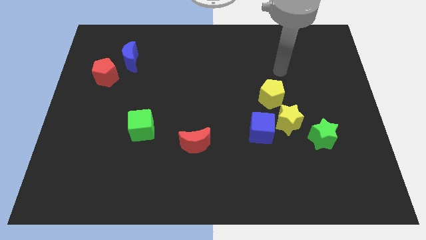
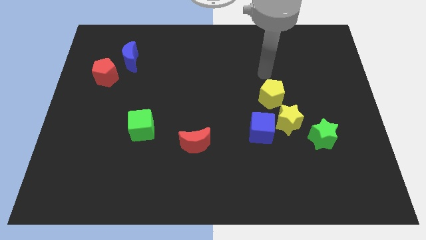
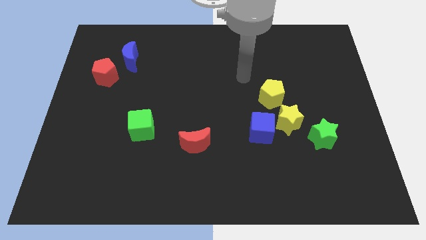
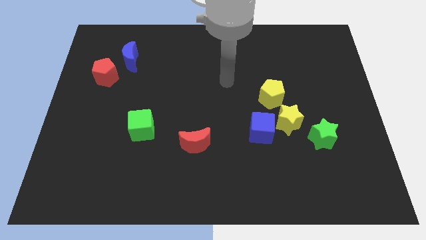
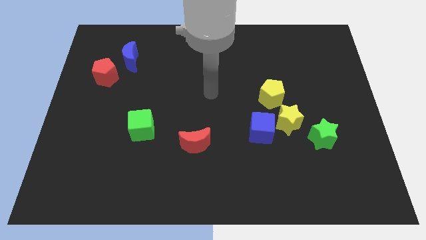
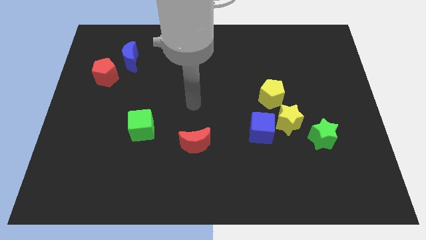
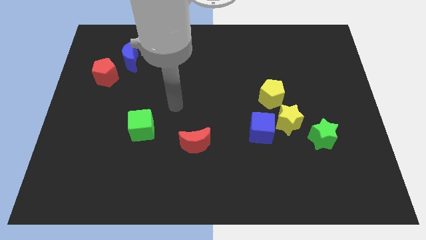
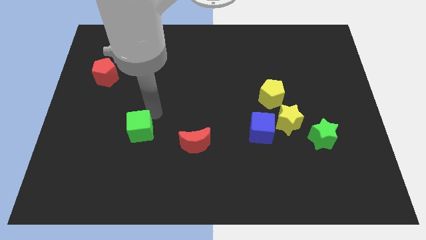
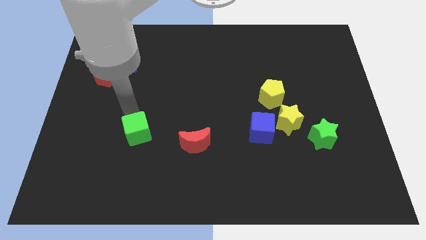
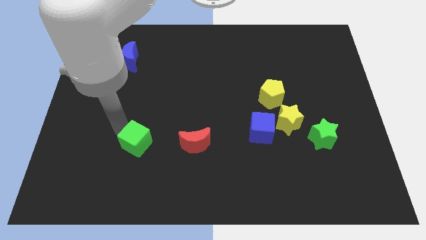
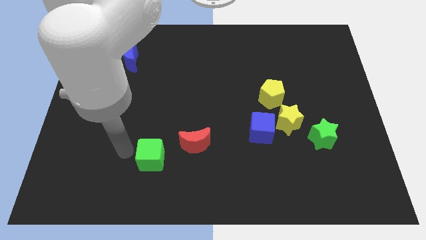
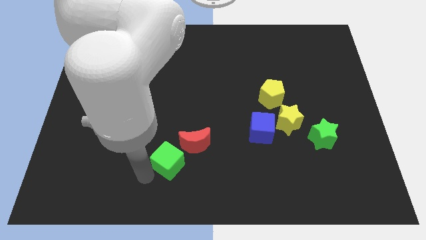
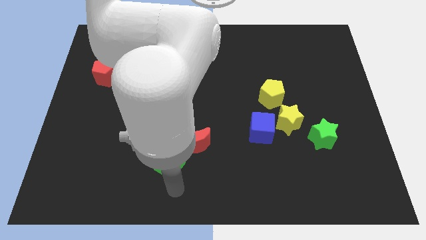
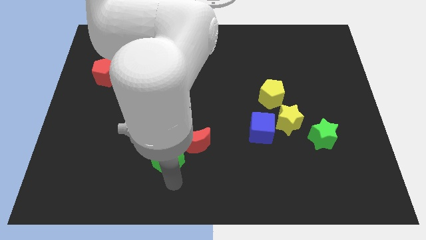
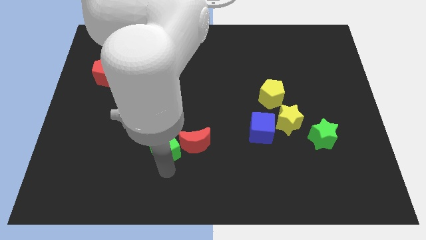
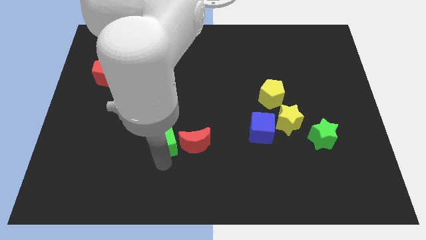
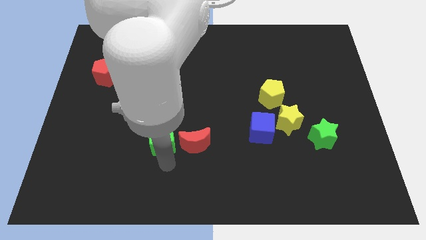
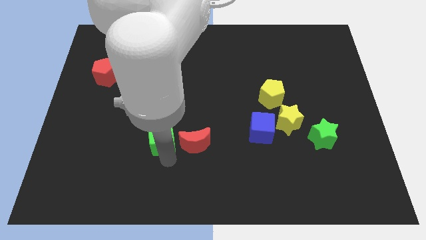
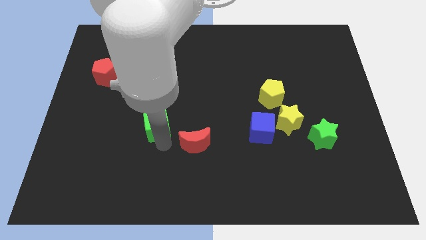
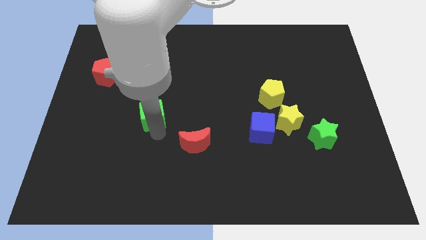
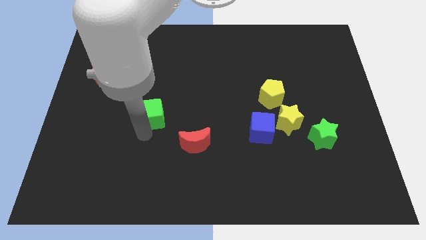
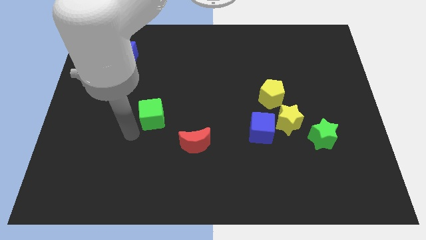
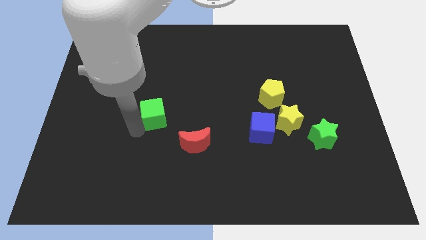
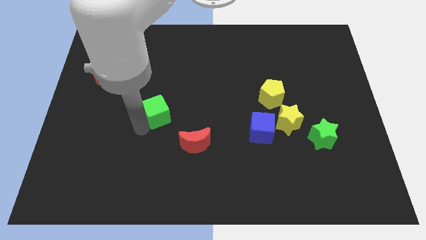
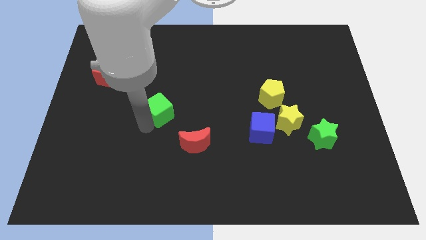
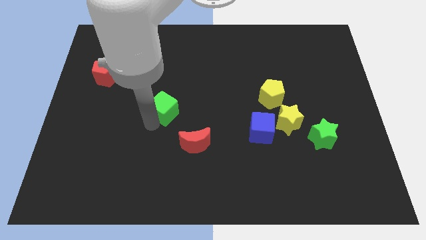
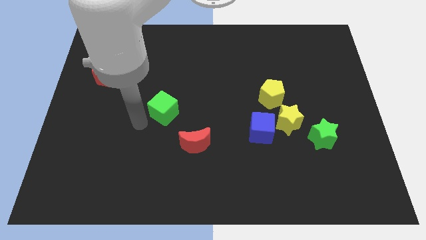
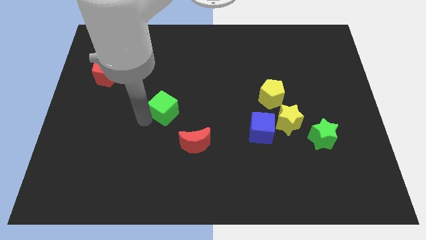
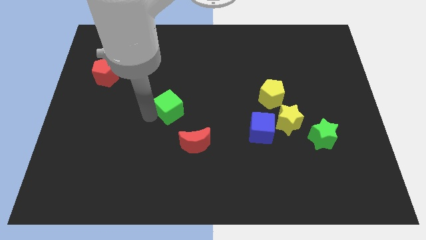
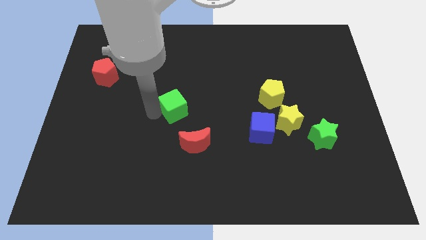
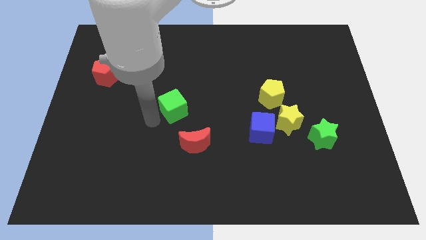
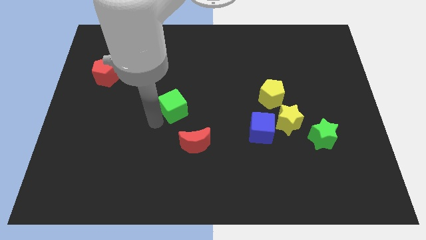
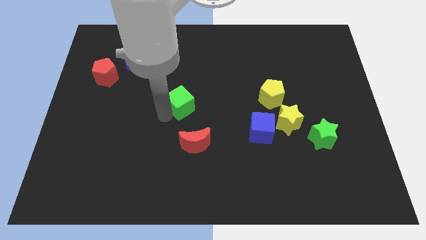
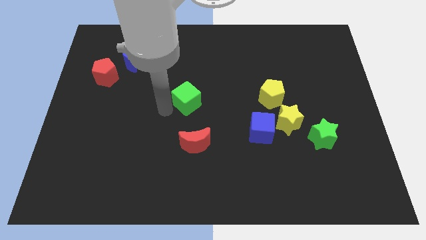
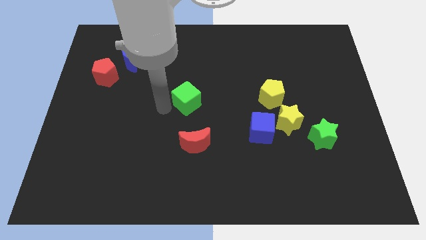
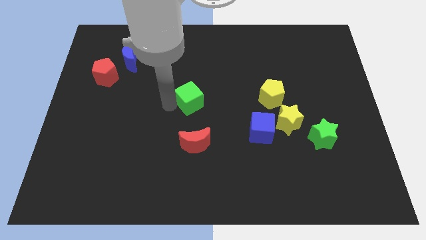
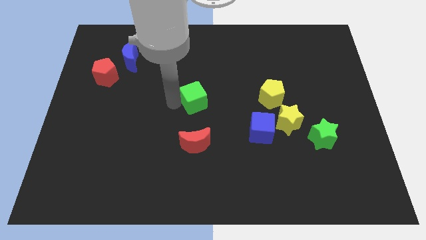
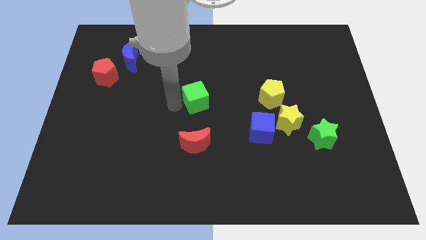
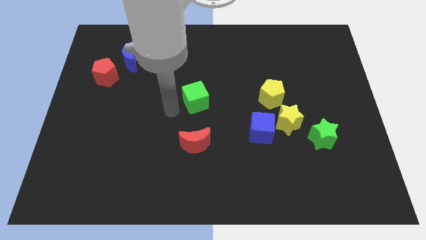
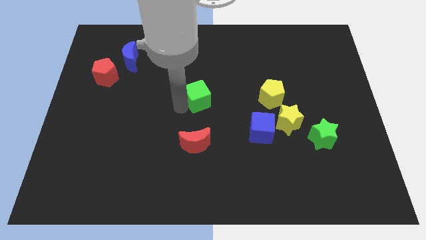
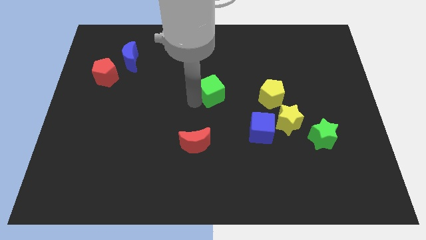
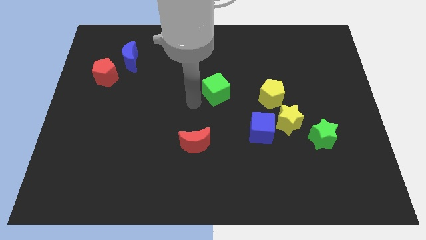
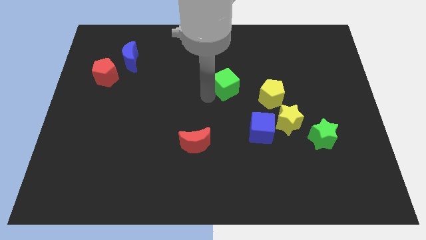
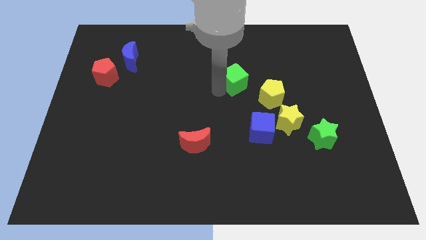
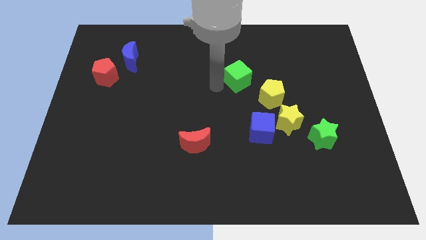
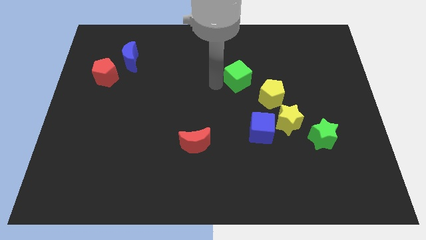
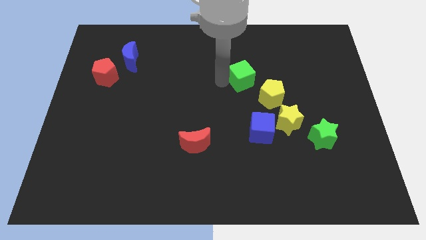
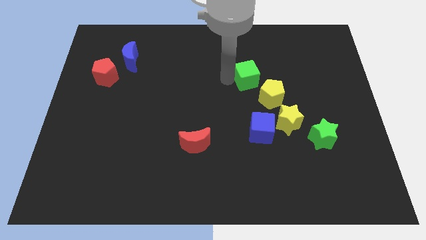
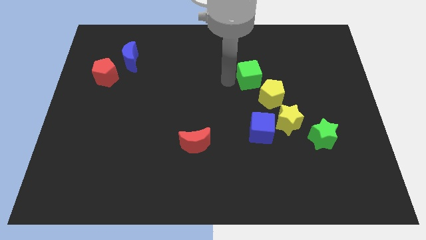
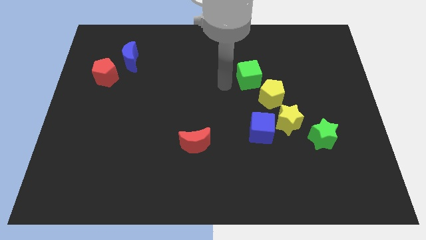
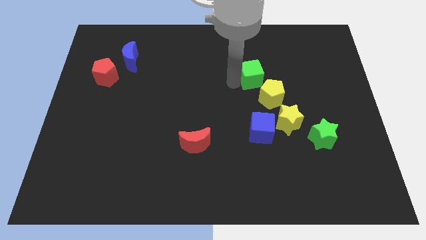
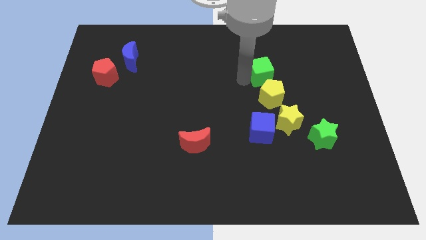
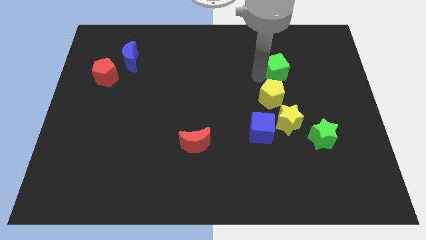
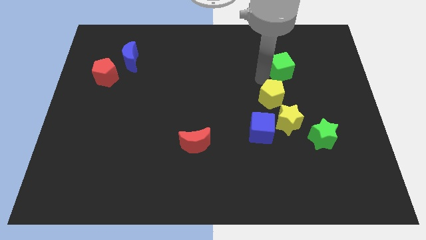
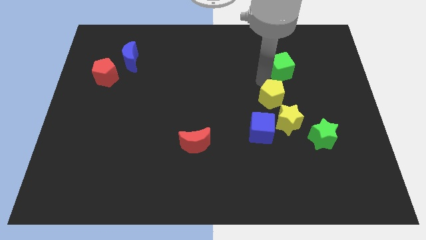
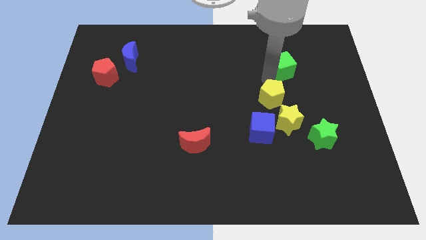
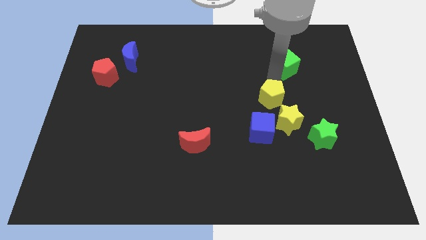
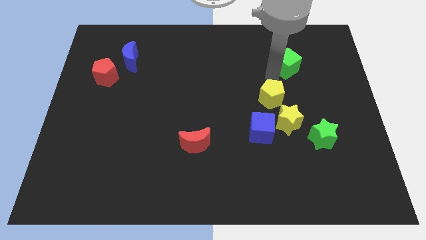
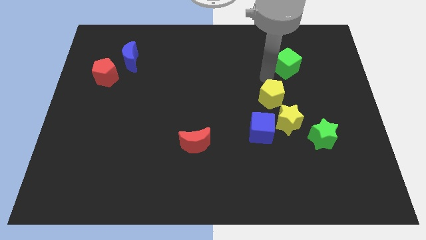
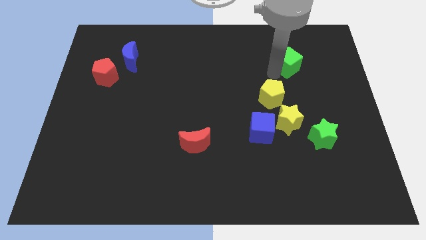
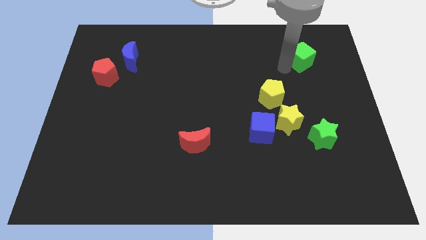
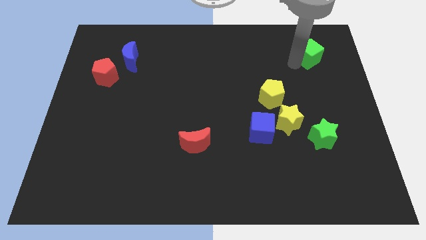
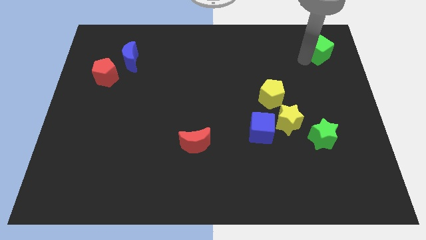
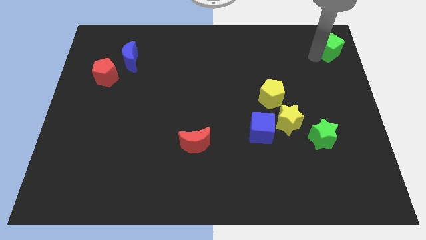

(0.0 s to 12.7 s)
move the green cube to the upper right corner

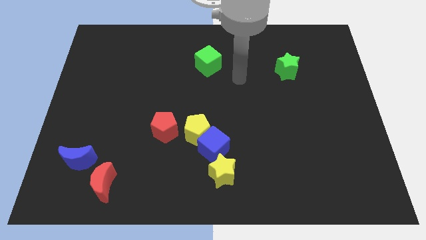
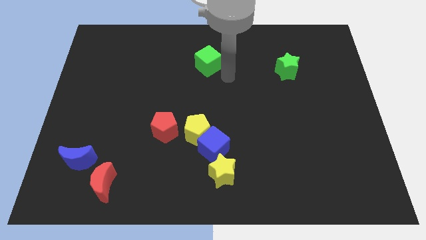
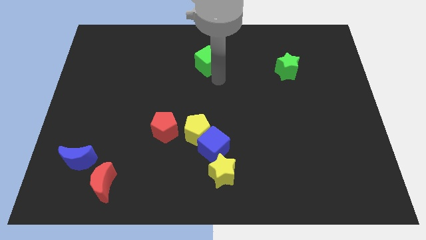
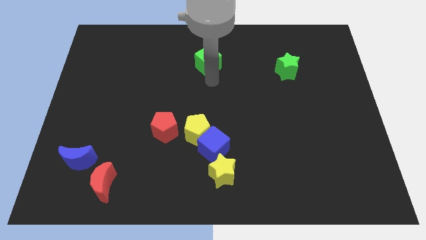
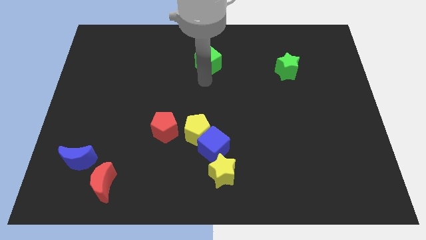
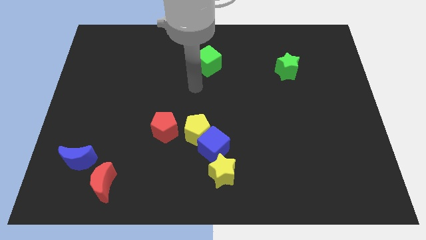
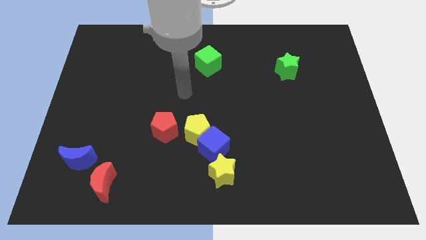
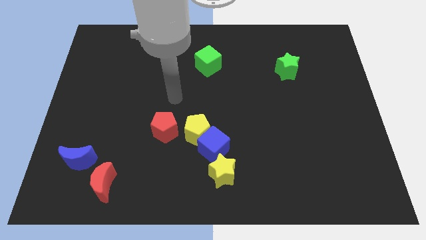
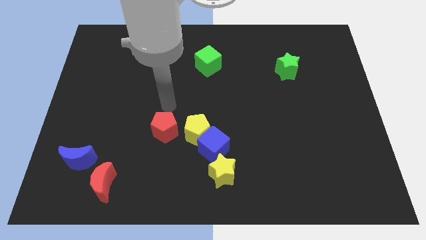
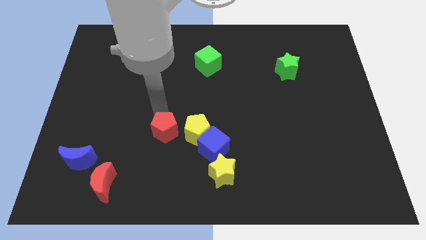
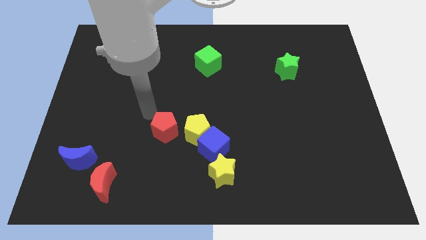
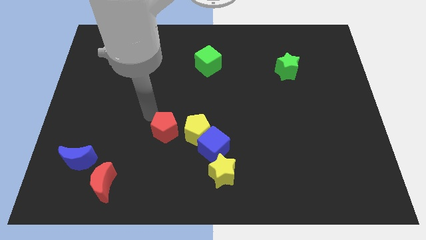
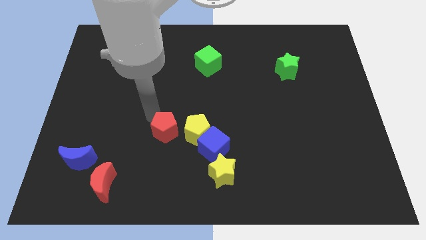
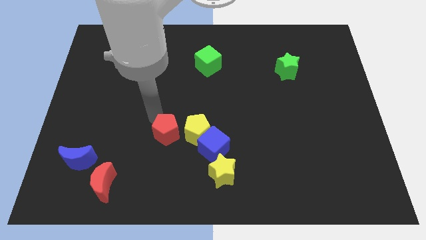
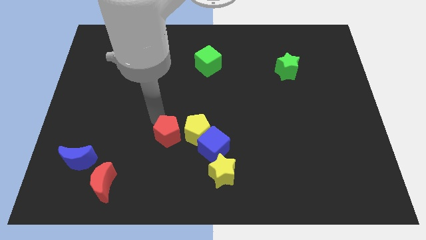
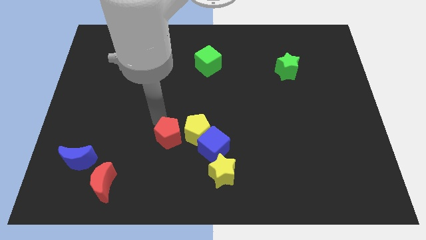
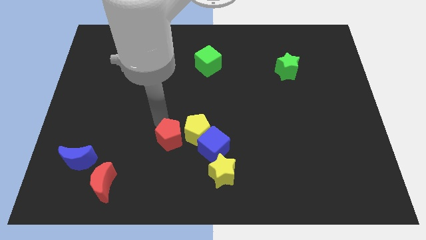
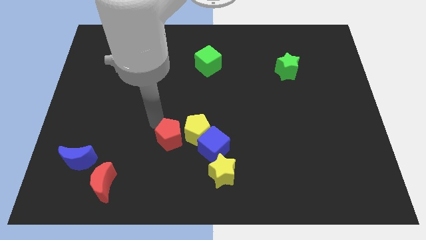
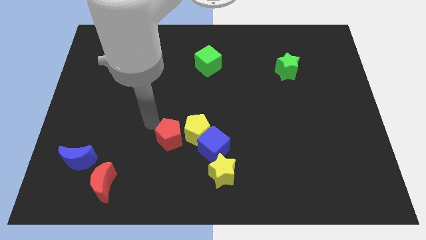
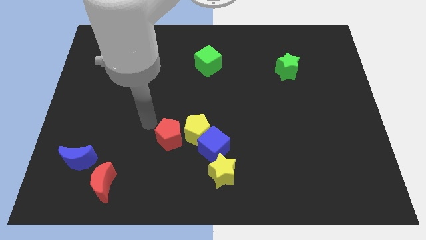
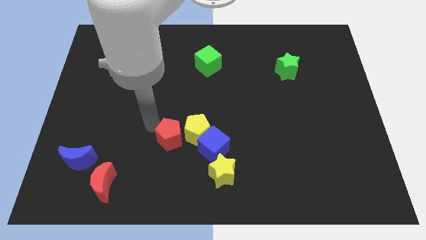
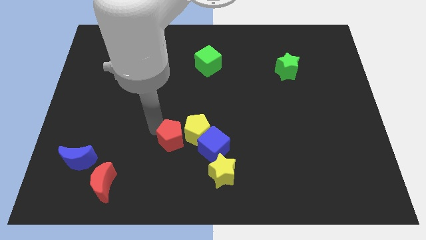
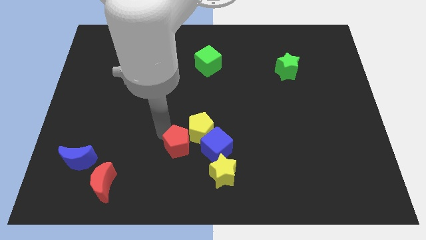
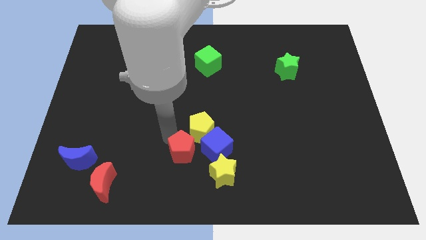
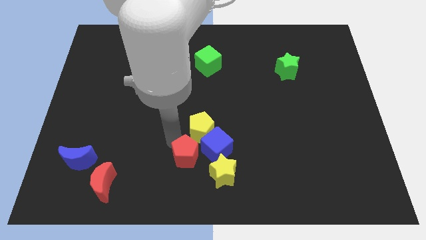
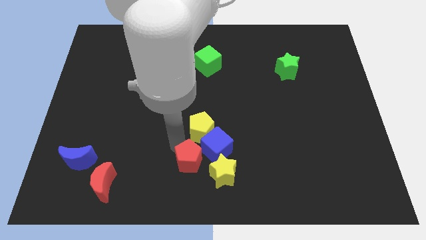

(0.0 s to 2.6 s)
put the red pentagon to the bottom
